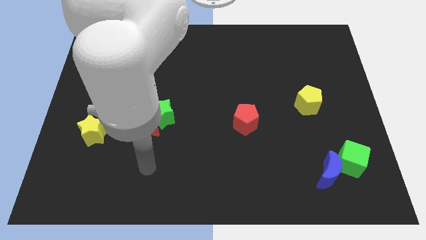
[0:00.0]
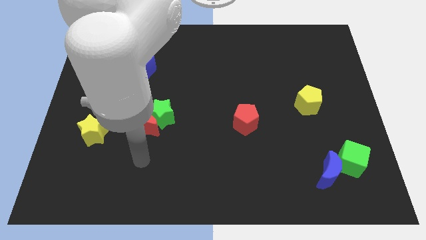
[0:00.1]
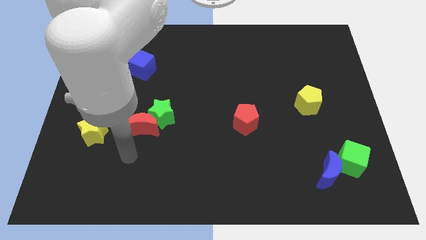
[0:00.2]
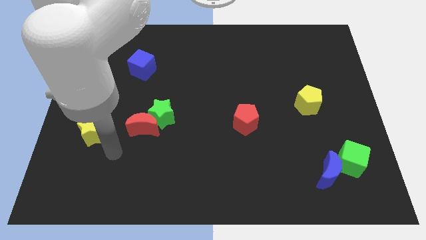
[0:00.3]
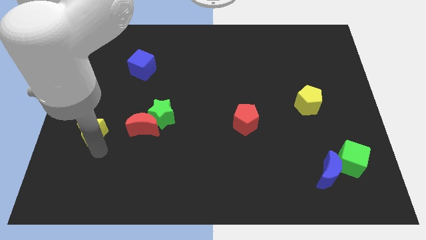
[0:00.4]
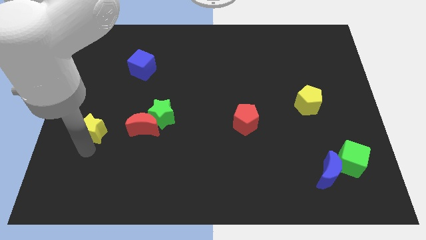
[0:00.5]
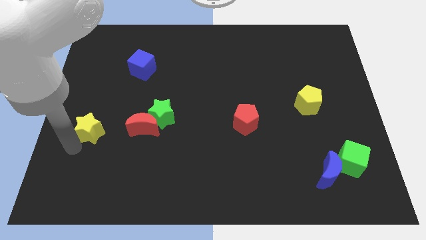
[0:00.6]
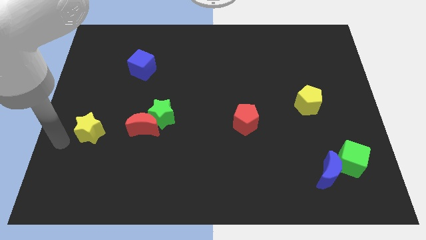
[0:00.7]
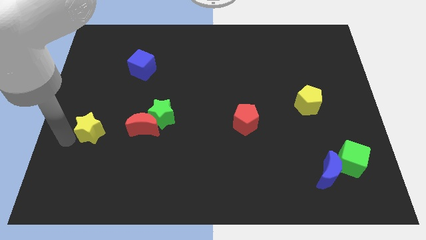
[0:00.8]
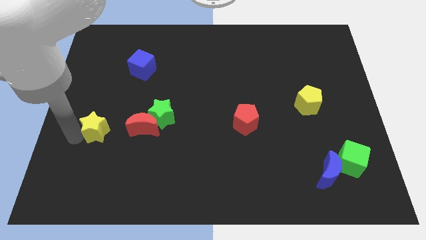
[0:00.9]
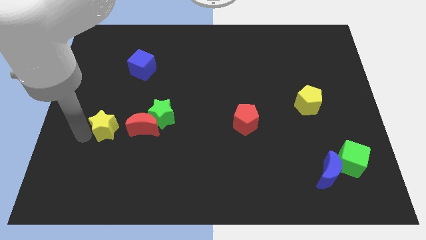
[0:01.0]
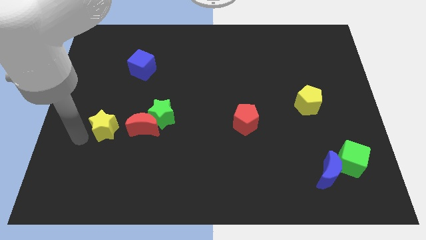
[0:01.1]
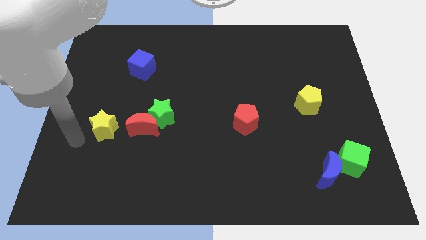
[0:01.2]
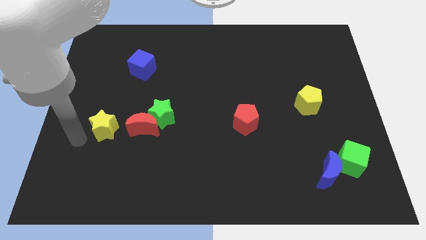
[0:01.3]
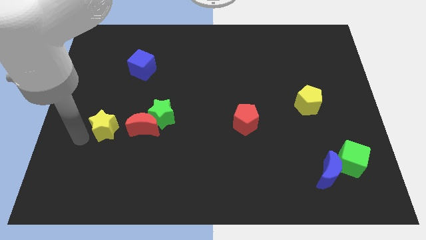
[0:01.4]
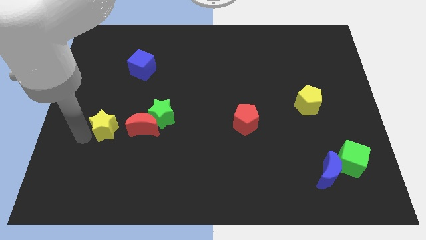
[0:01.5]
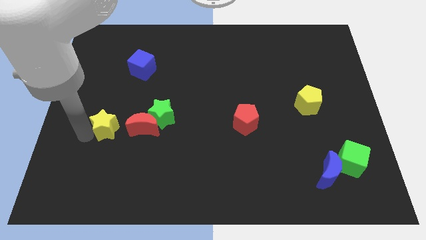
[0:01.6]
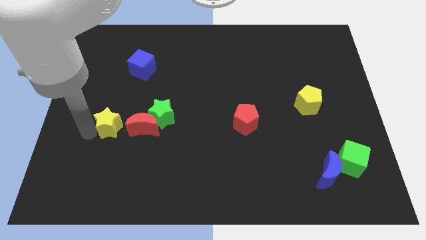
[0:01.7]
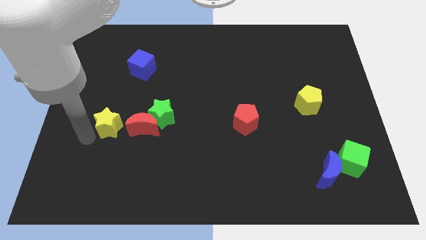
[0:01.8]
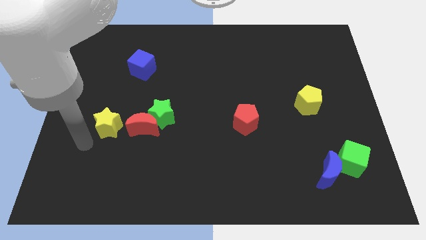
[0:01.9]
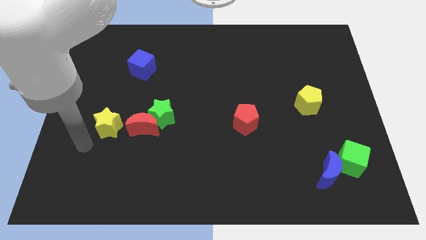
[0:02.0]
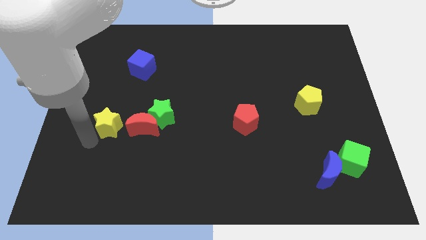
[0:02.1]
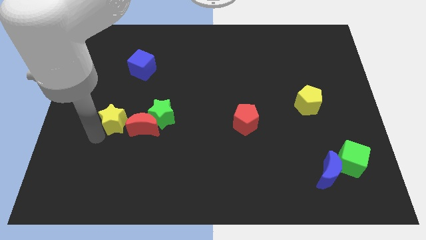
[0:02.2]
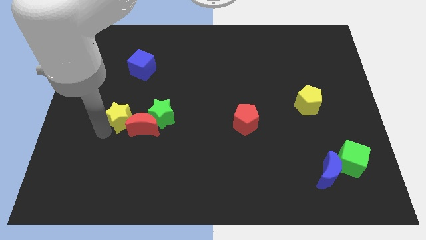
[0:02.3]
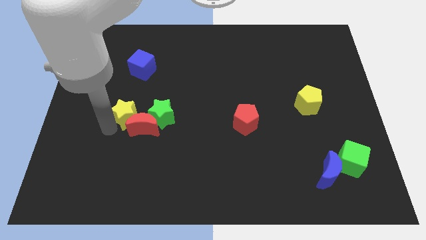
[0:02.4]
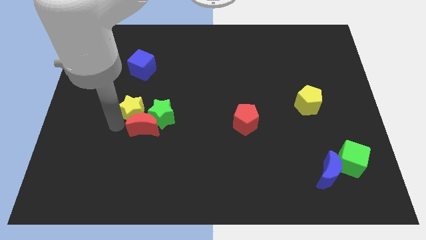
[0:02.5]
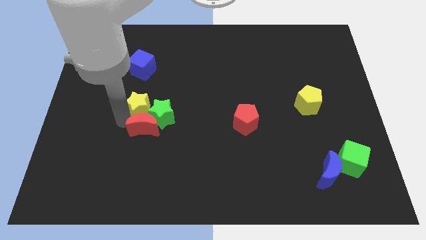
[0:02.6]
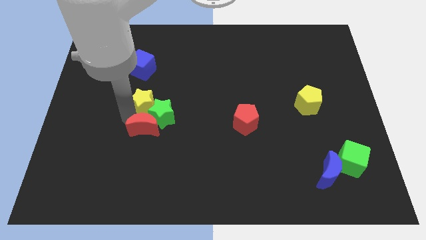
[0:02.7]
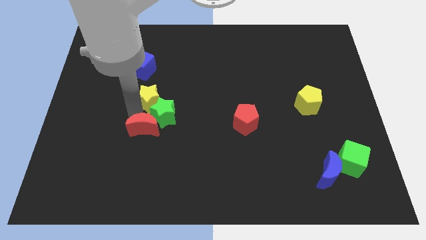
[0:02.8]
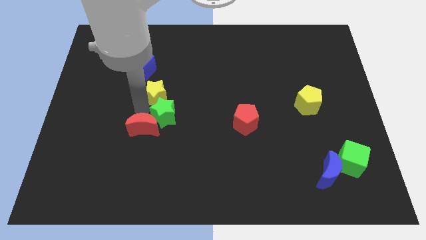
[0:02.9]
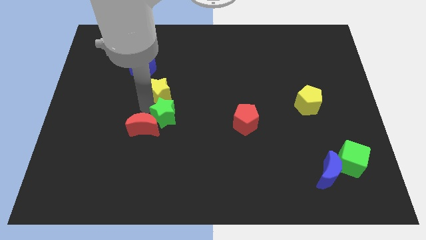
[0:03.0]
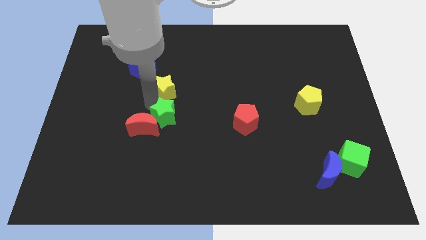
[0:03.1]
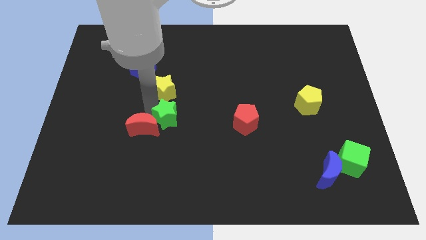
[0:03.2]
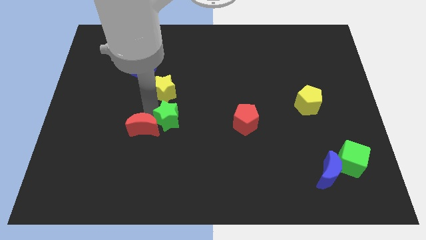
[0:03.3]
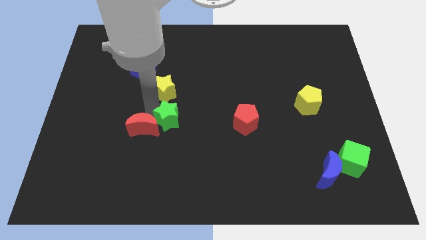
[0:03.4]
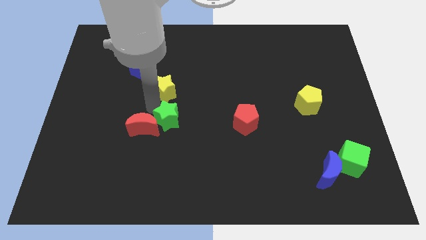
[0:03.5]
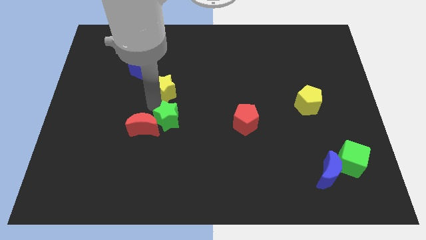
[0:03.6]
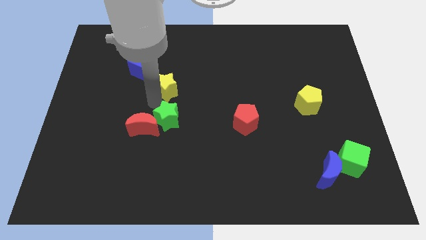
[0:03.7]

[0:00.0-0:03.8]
move the yellow star up and then to the right

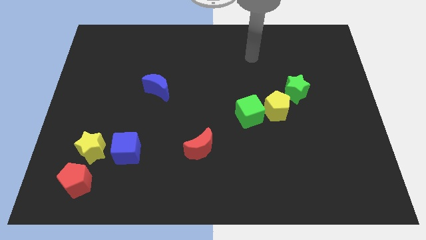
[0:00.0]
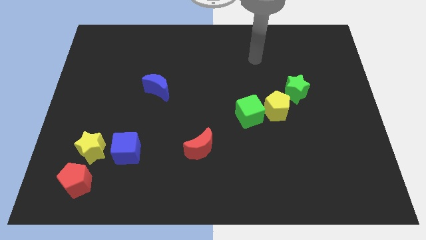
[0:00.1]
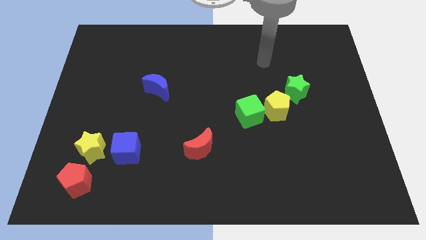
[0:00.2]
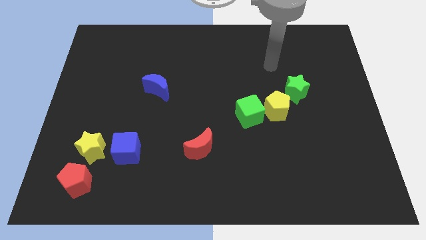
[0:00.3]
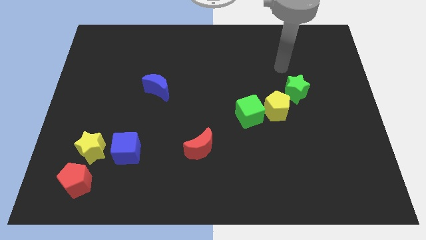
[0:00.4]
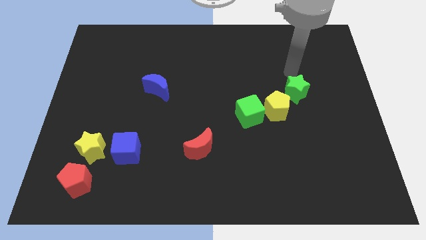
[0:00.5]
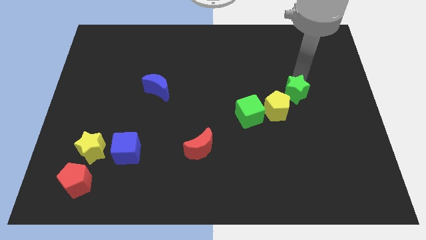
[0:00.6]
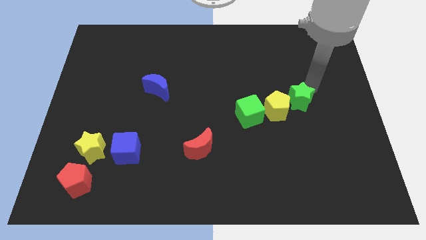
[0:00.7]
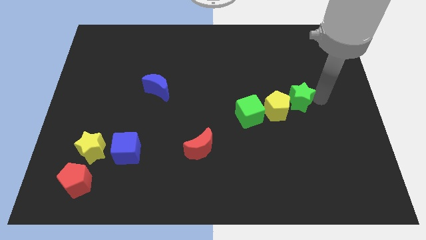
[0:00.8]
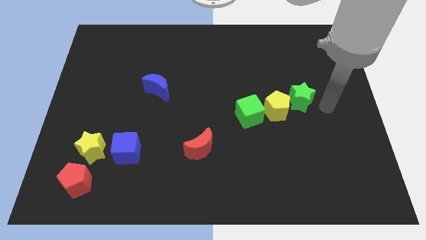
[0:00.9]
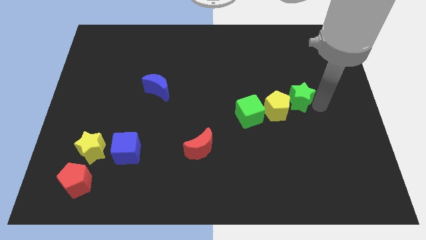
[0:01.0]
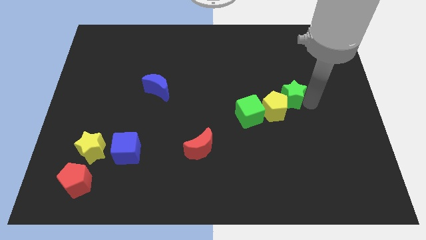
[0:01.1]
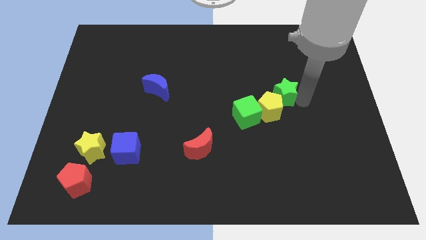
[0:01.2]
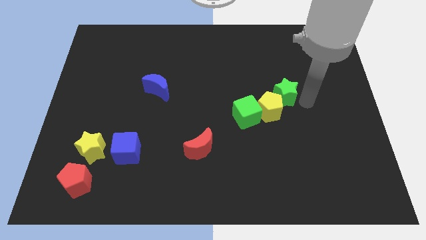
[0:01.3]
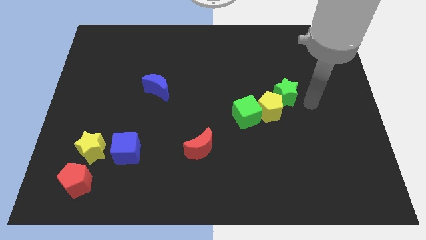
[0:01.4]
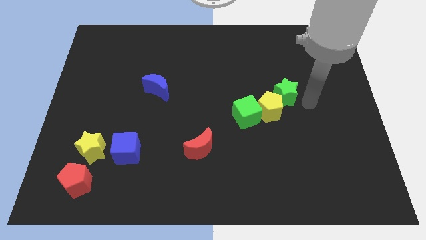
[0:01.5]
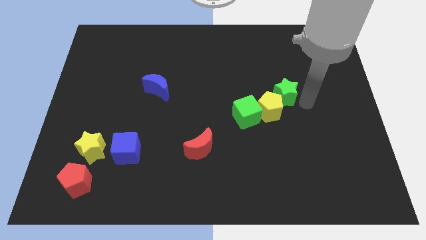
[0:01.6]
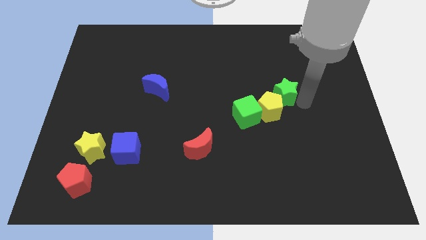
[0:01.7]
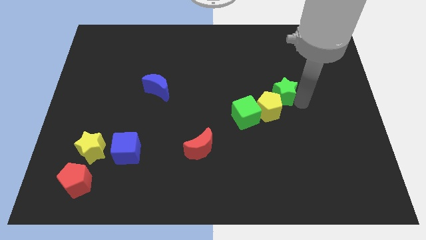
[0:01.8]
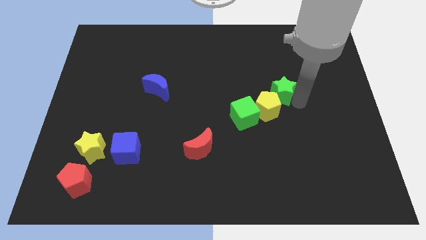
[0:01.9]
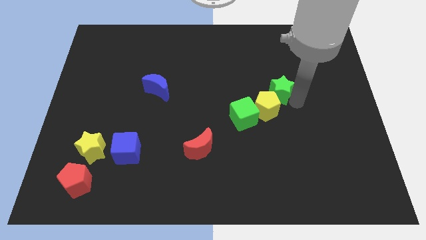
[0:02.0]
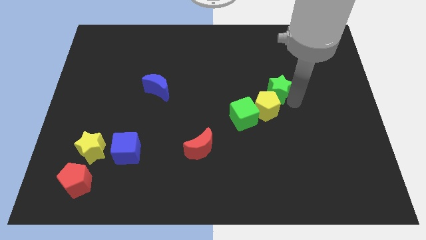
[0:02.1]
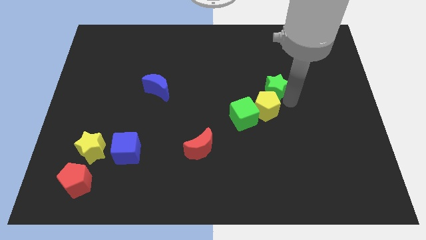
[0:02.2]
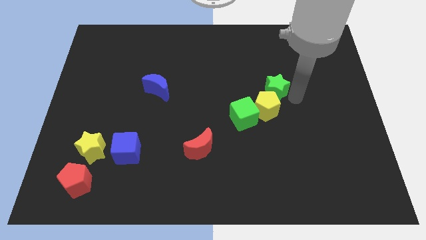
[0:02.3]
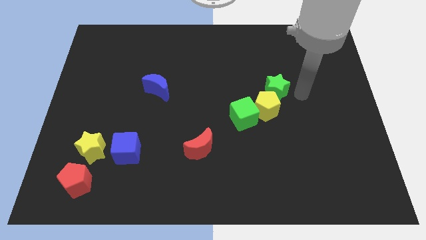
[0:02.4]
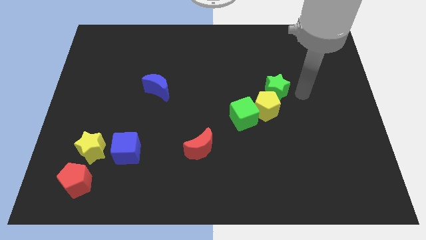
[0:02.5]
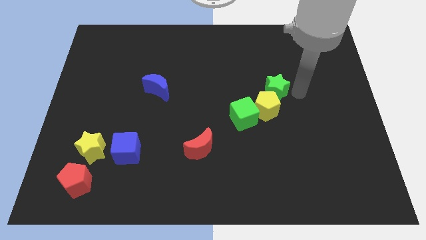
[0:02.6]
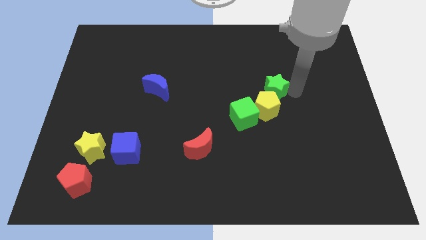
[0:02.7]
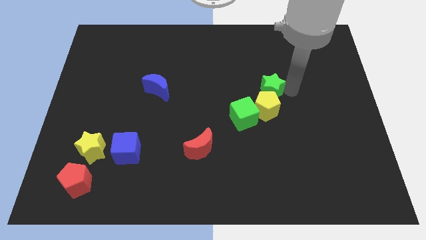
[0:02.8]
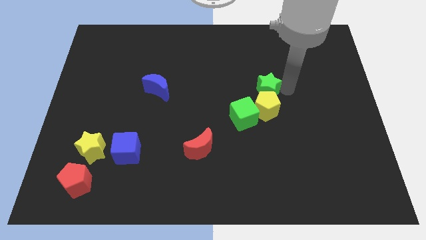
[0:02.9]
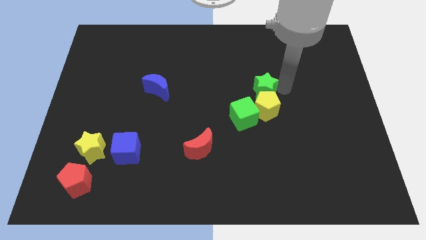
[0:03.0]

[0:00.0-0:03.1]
slightly push the green star left

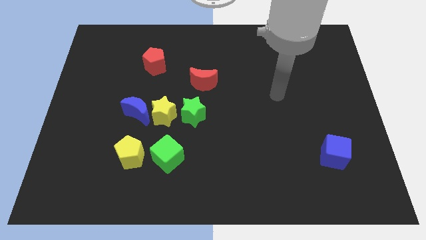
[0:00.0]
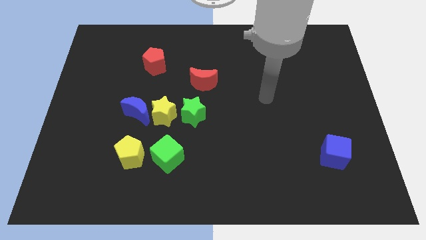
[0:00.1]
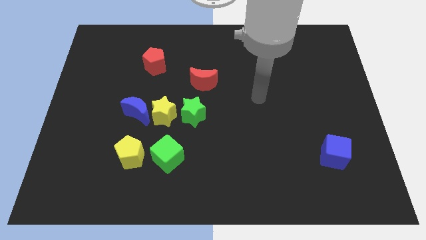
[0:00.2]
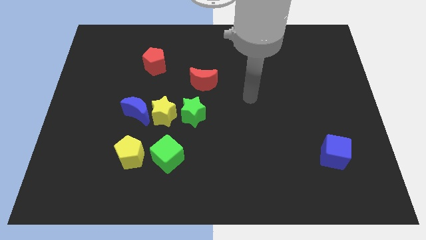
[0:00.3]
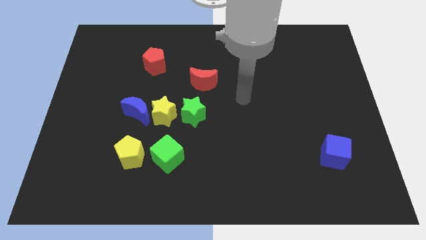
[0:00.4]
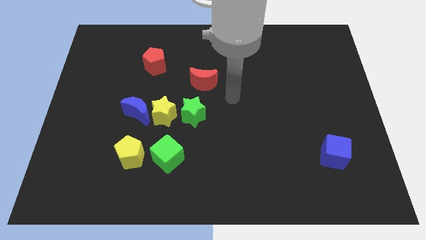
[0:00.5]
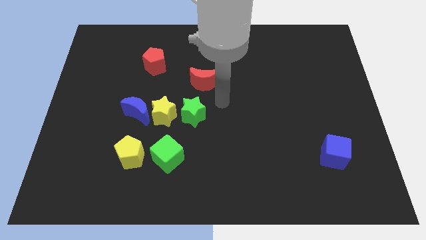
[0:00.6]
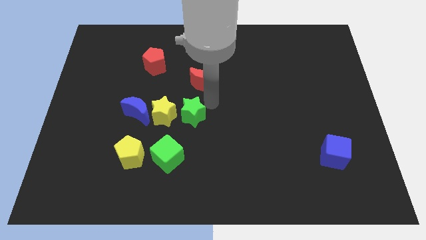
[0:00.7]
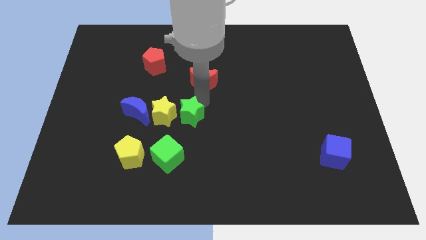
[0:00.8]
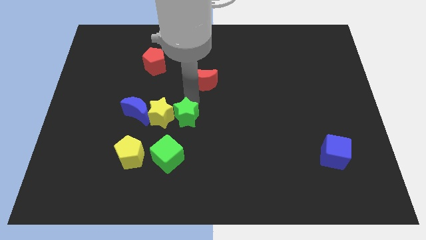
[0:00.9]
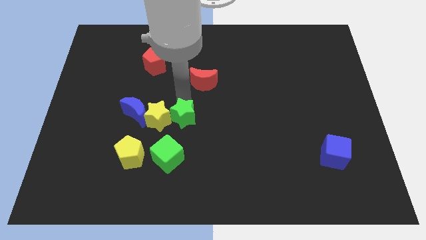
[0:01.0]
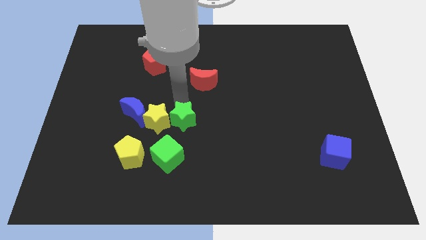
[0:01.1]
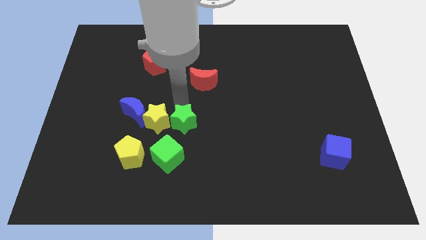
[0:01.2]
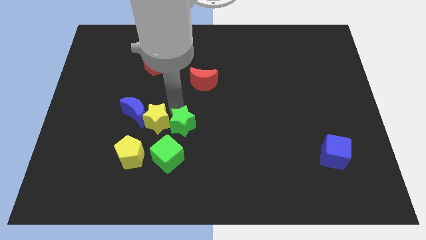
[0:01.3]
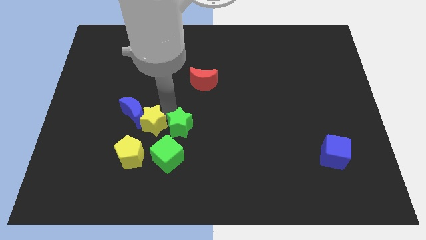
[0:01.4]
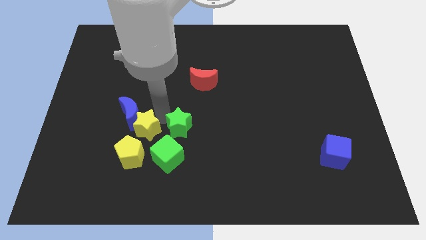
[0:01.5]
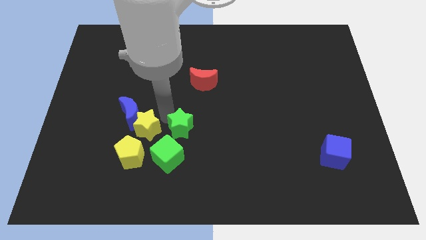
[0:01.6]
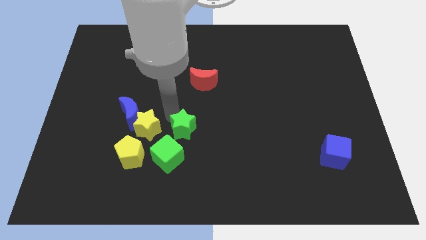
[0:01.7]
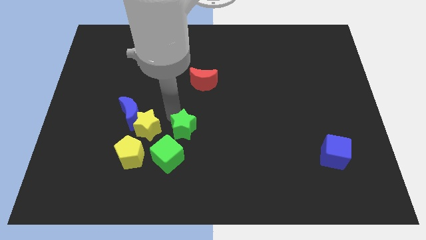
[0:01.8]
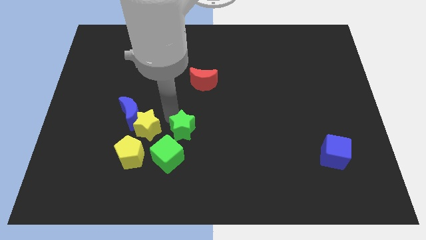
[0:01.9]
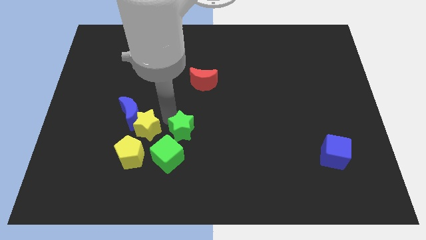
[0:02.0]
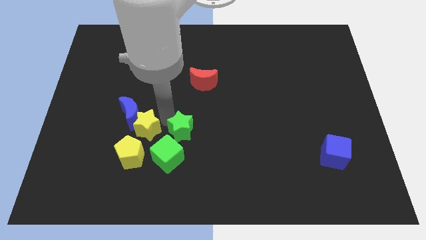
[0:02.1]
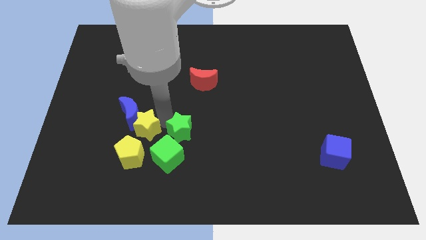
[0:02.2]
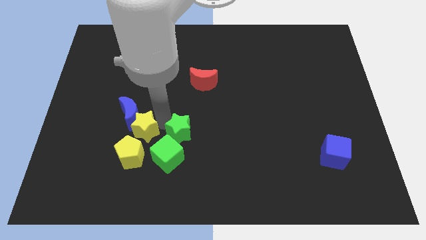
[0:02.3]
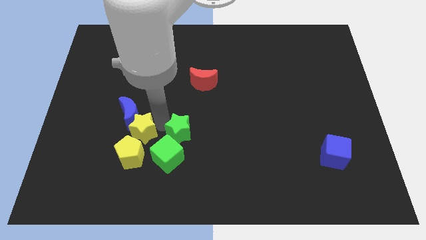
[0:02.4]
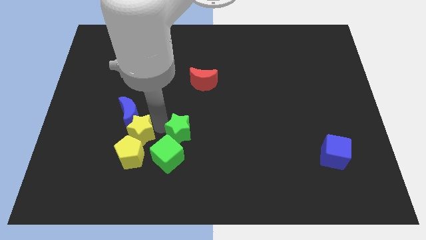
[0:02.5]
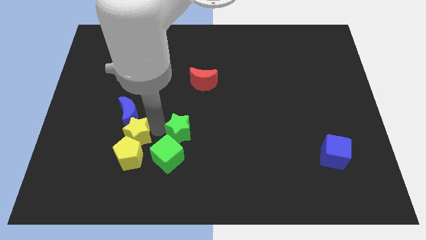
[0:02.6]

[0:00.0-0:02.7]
move the yellow star a little bit downwards and left
